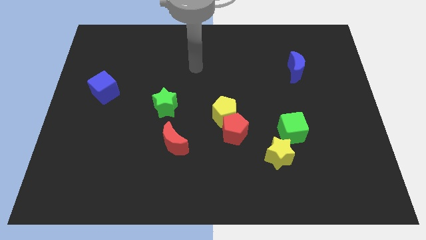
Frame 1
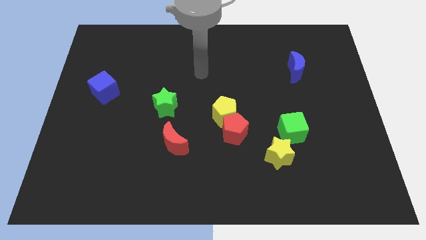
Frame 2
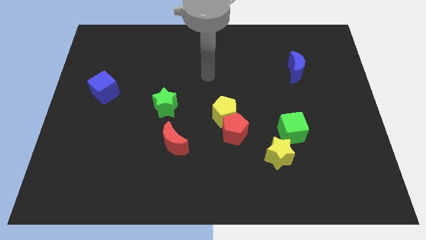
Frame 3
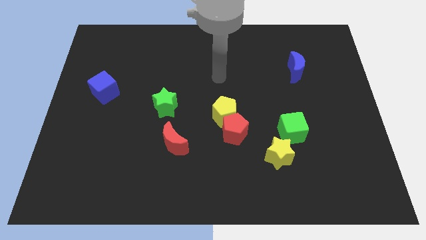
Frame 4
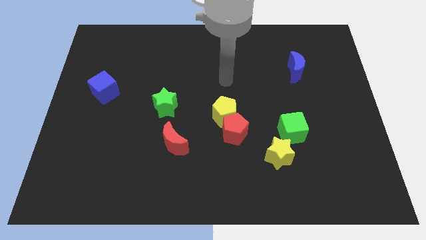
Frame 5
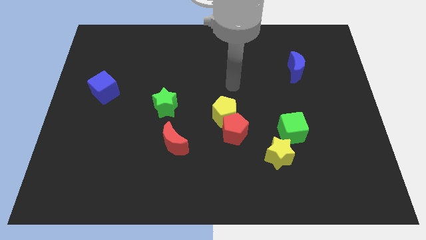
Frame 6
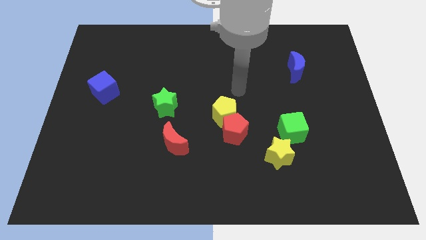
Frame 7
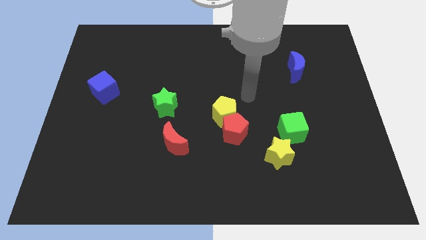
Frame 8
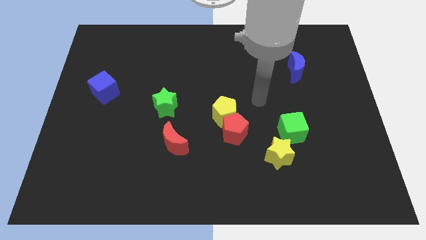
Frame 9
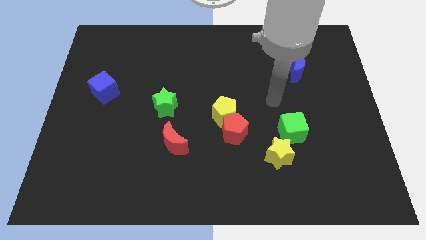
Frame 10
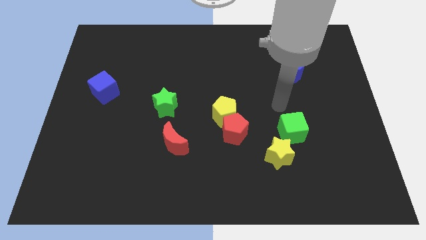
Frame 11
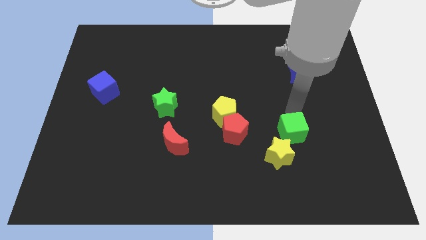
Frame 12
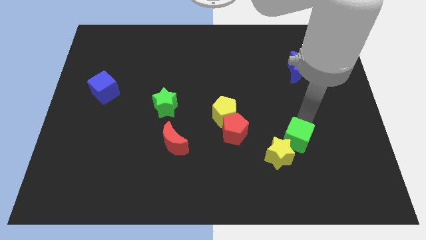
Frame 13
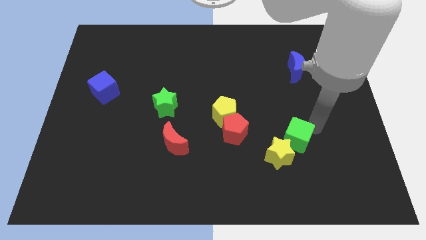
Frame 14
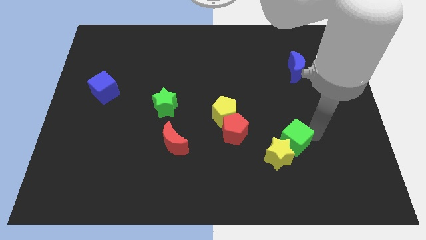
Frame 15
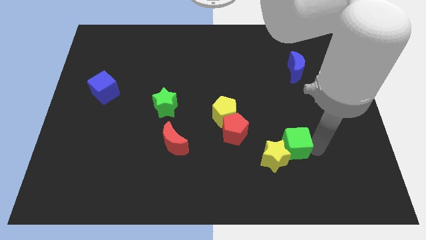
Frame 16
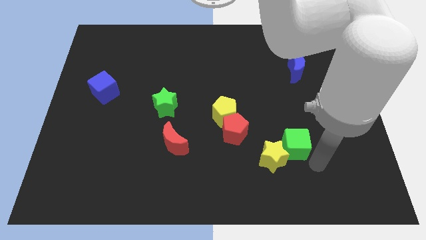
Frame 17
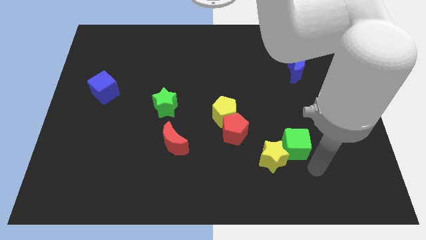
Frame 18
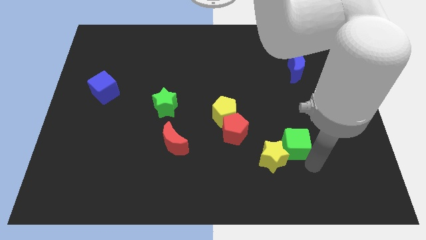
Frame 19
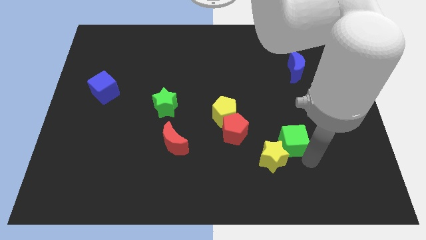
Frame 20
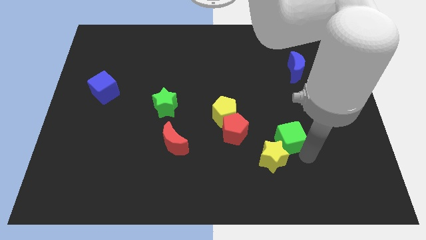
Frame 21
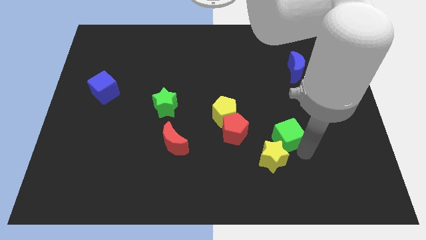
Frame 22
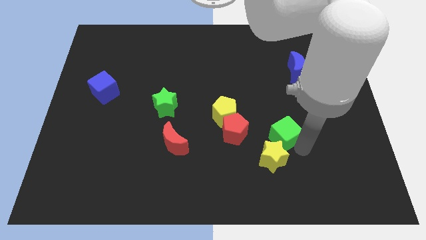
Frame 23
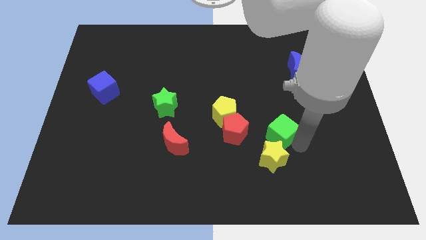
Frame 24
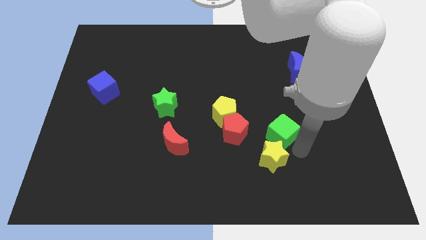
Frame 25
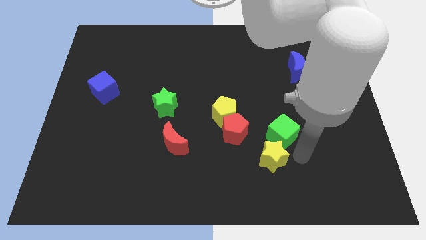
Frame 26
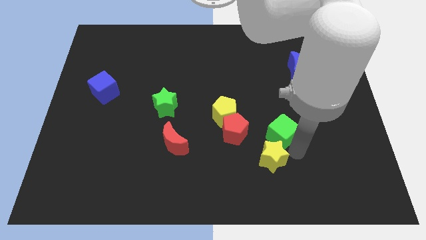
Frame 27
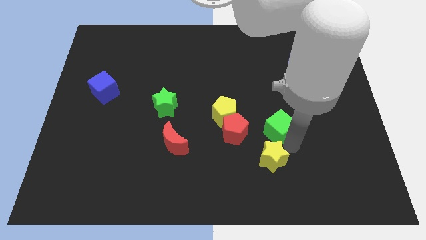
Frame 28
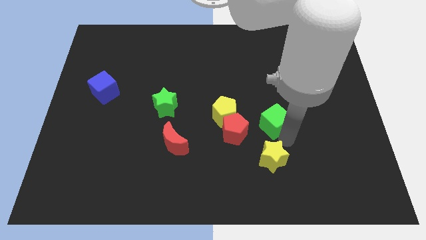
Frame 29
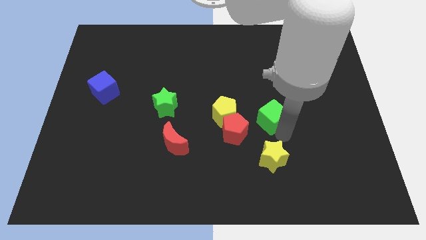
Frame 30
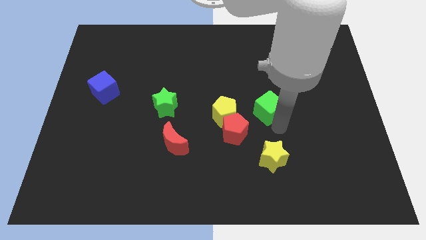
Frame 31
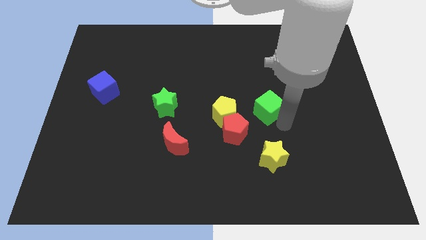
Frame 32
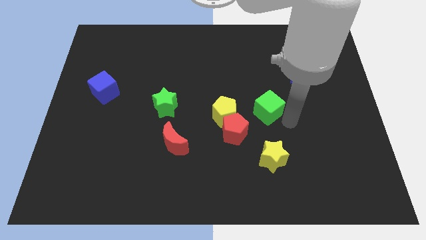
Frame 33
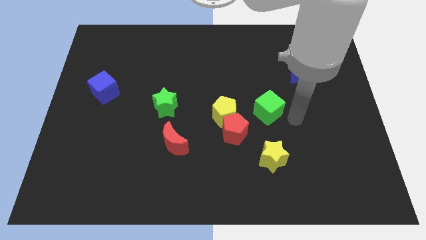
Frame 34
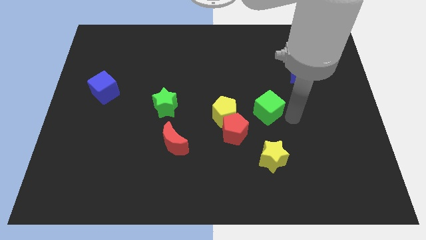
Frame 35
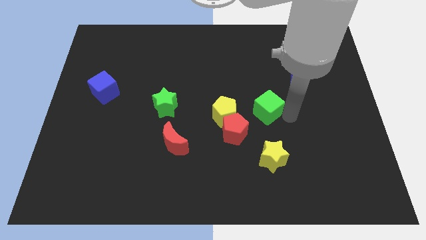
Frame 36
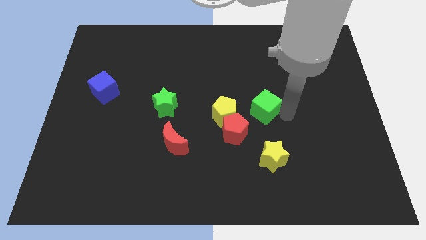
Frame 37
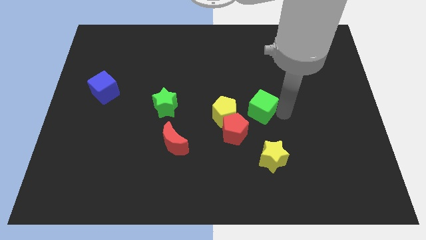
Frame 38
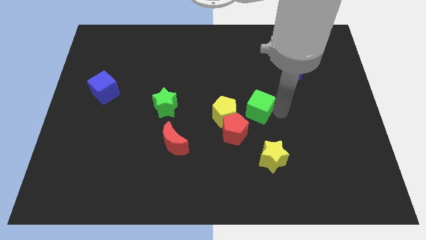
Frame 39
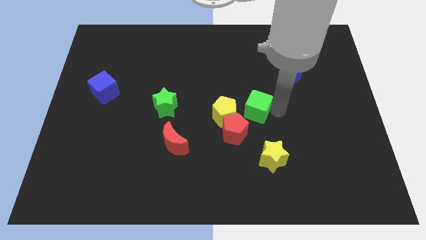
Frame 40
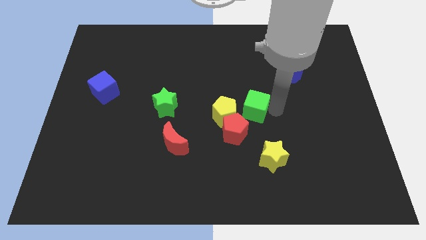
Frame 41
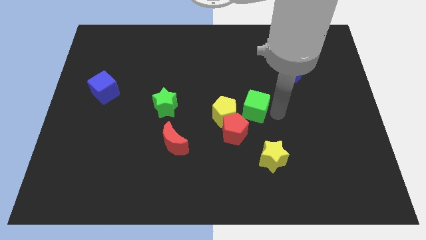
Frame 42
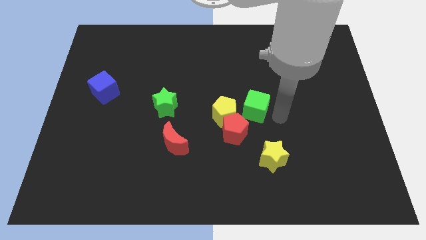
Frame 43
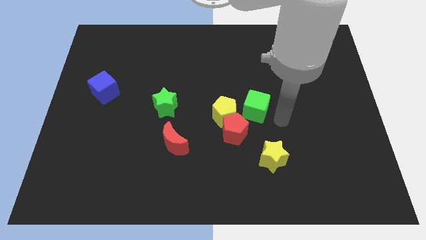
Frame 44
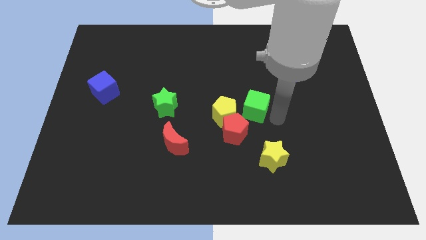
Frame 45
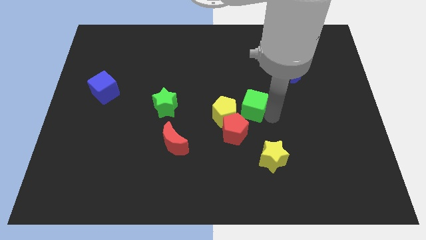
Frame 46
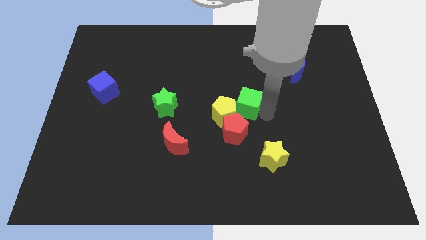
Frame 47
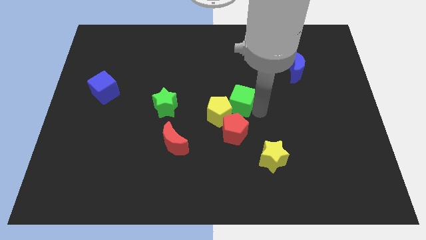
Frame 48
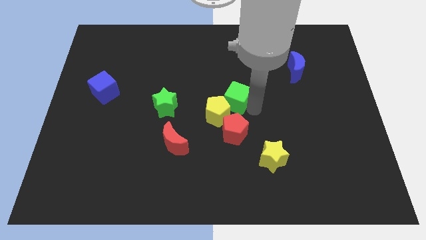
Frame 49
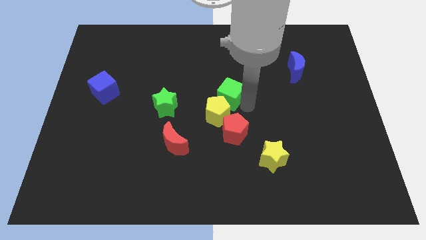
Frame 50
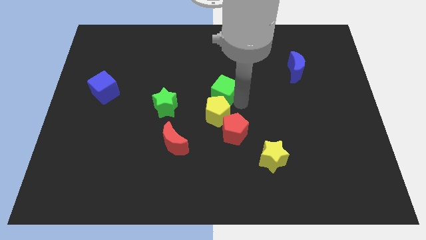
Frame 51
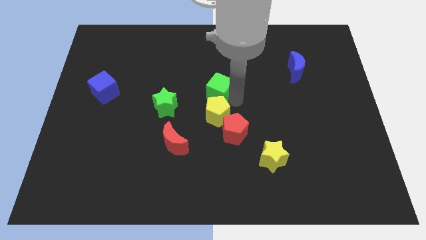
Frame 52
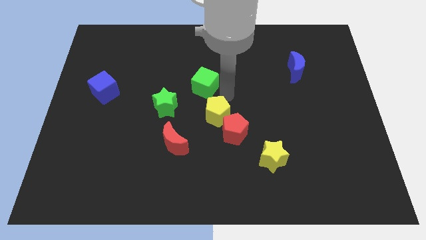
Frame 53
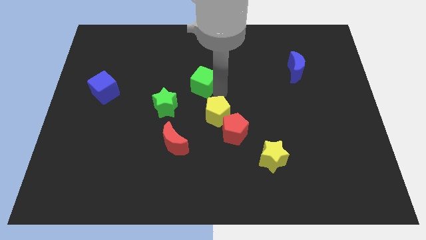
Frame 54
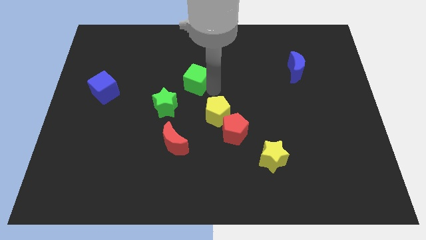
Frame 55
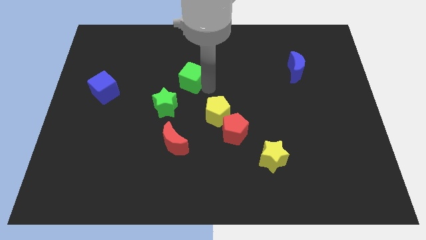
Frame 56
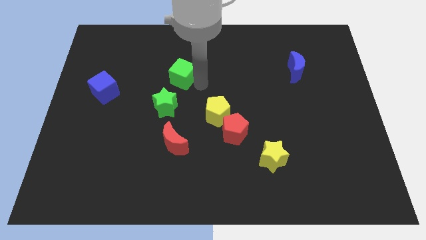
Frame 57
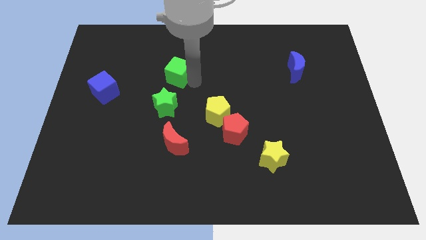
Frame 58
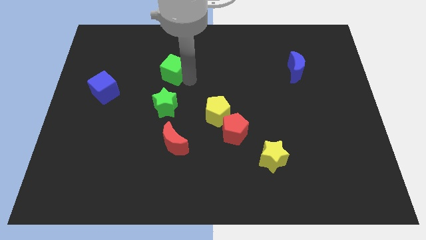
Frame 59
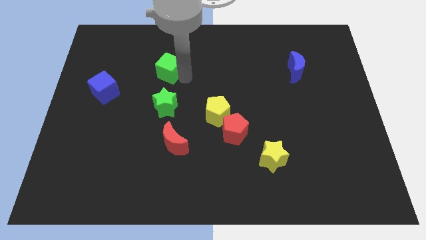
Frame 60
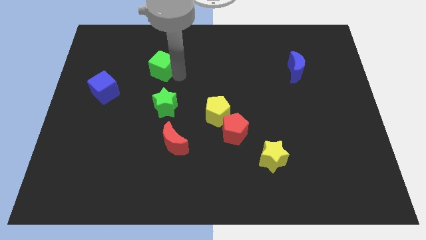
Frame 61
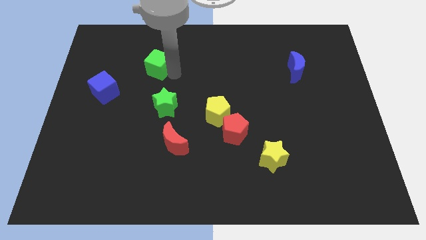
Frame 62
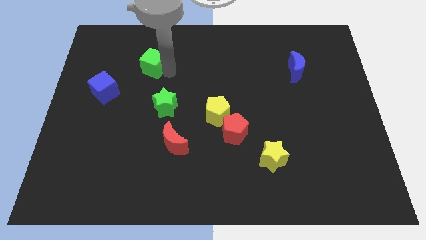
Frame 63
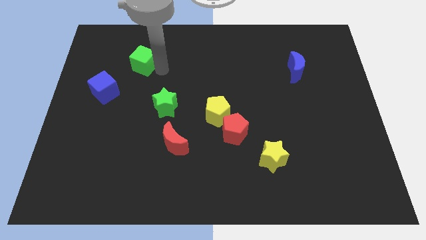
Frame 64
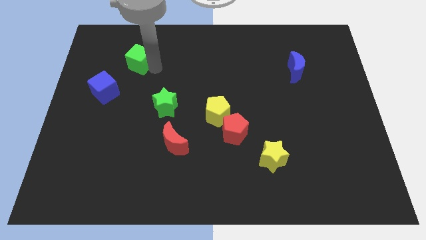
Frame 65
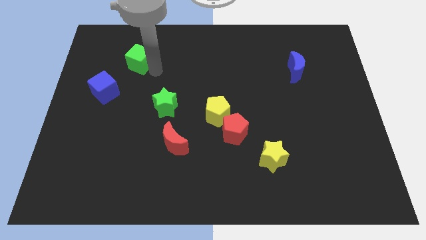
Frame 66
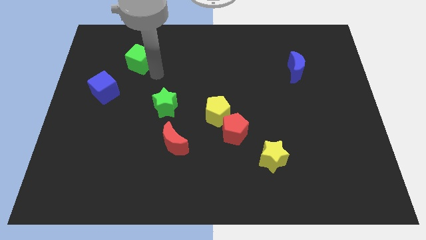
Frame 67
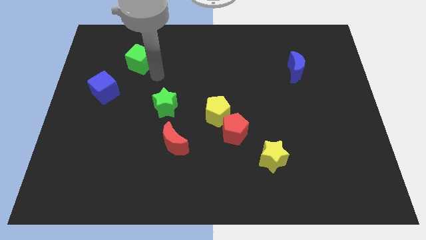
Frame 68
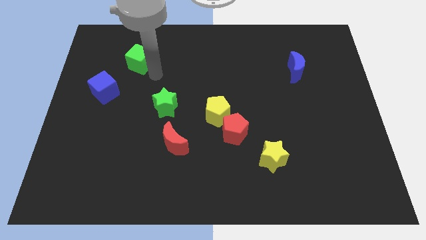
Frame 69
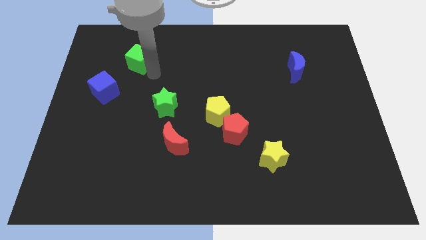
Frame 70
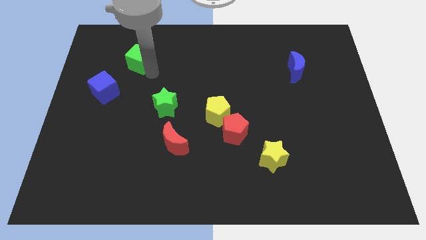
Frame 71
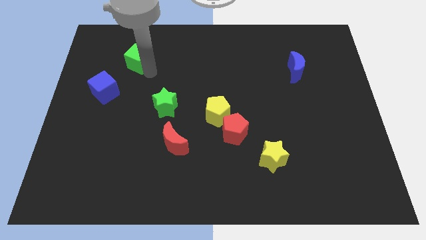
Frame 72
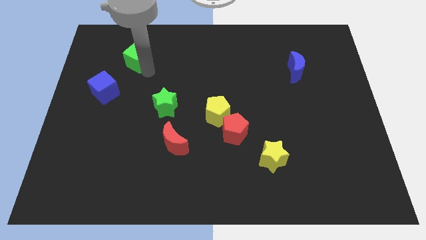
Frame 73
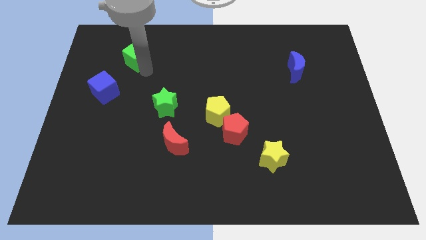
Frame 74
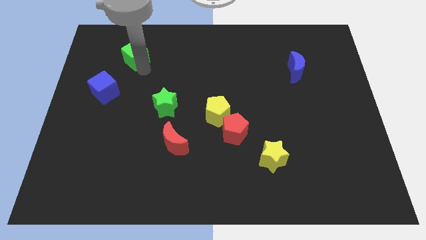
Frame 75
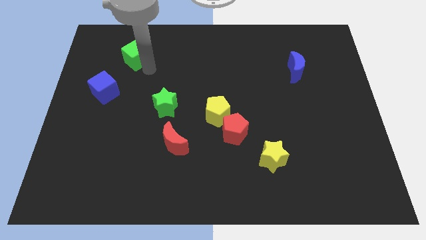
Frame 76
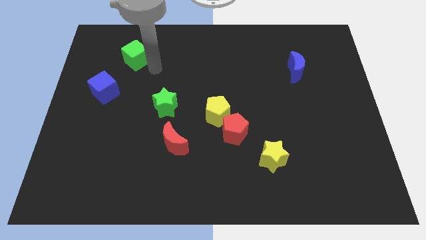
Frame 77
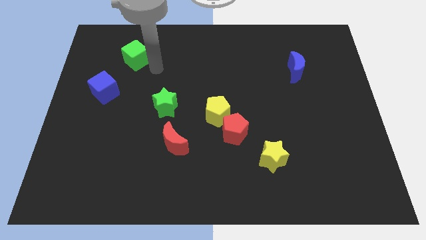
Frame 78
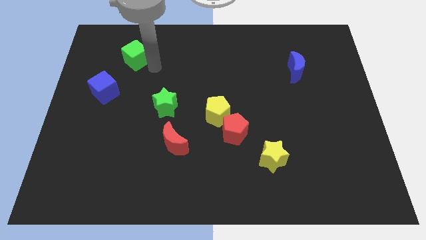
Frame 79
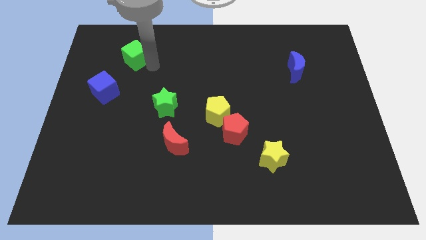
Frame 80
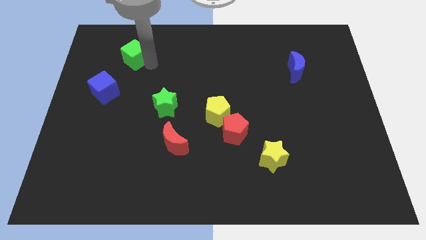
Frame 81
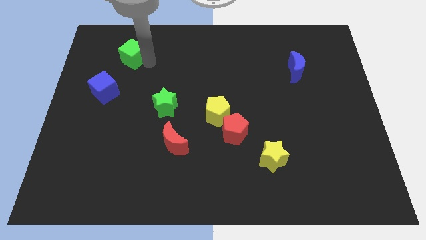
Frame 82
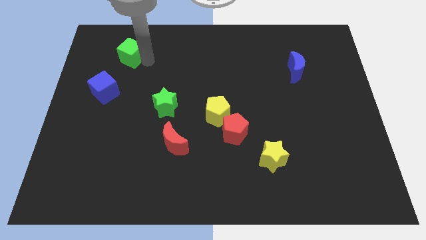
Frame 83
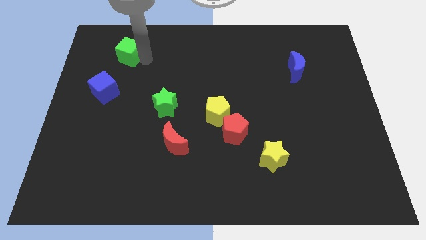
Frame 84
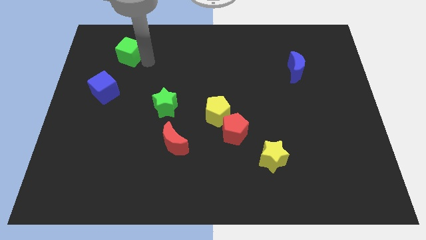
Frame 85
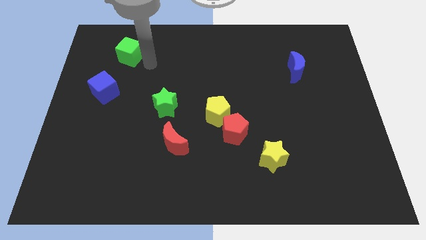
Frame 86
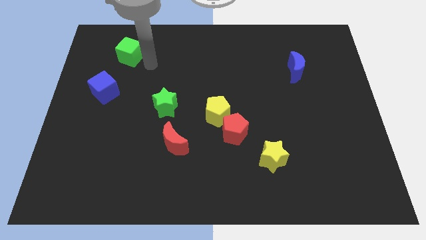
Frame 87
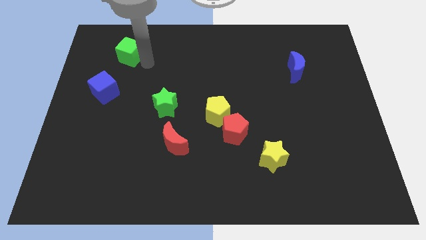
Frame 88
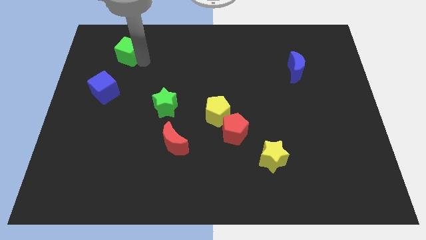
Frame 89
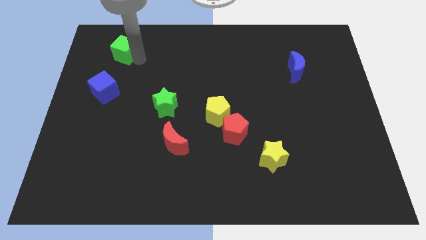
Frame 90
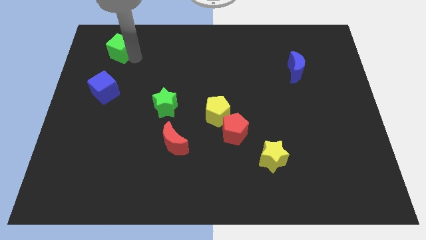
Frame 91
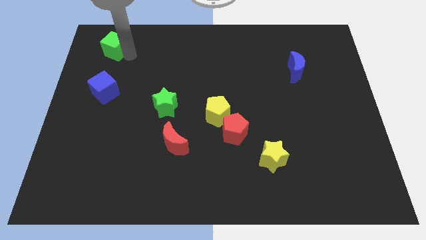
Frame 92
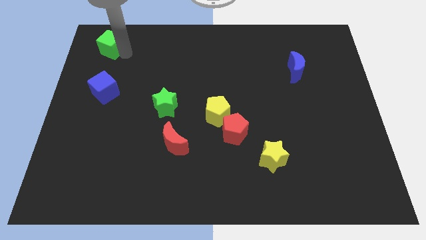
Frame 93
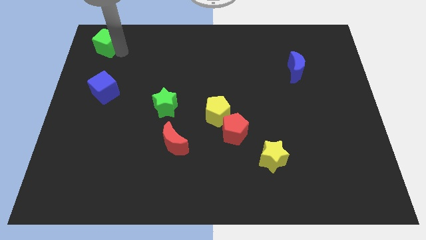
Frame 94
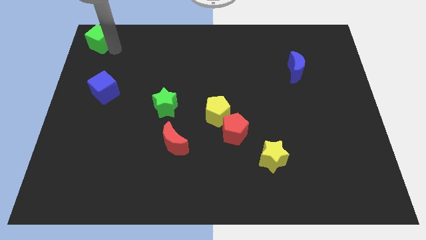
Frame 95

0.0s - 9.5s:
move the green cube to the top left of the board
